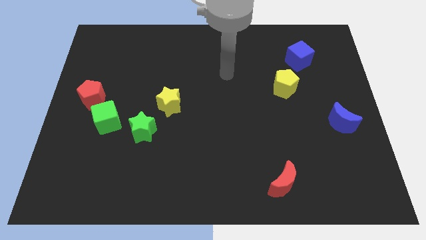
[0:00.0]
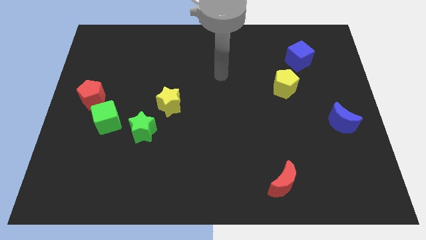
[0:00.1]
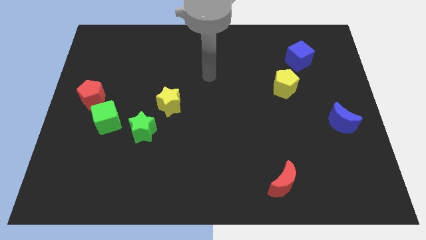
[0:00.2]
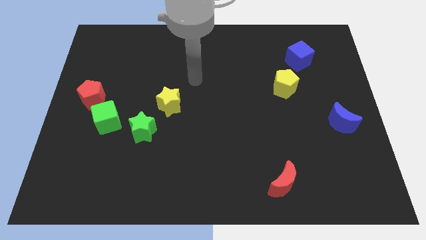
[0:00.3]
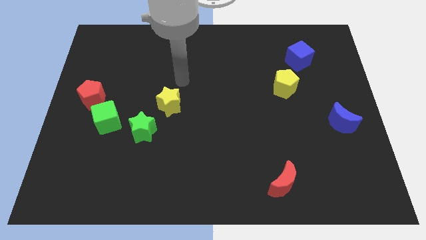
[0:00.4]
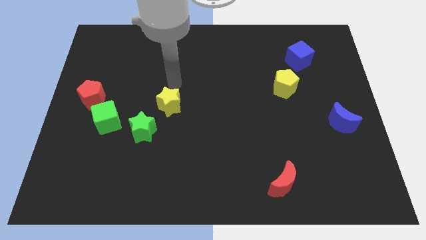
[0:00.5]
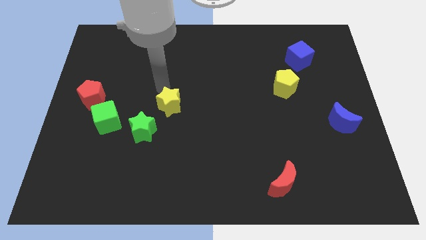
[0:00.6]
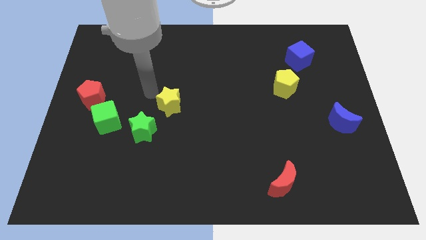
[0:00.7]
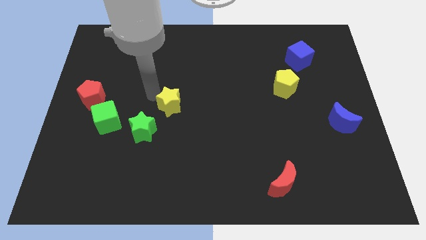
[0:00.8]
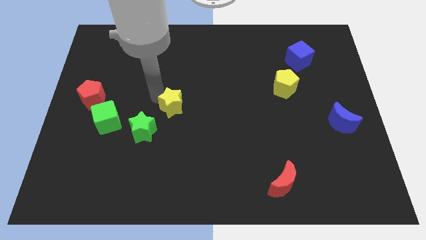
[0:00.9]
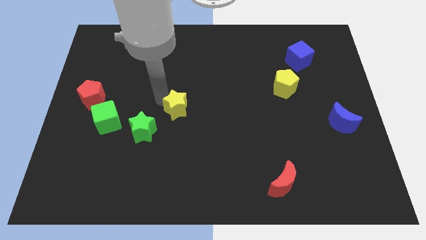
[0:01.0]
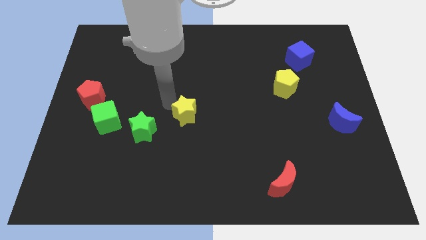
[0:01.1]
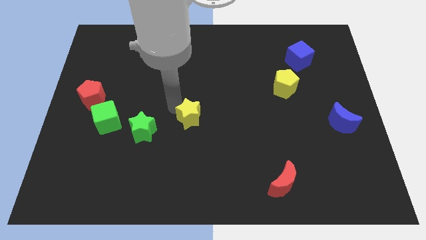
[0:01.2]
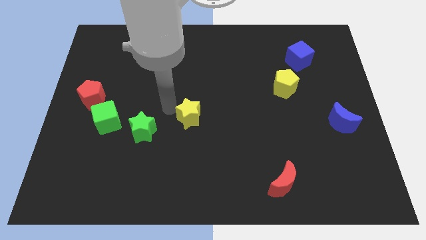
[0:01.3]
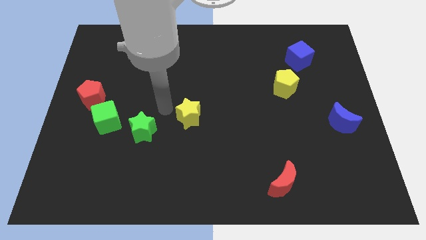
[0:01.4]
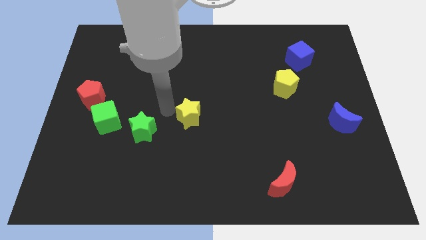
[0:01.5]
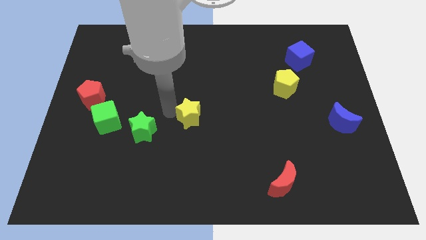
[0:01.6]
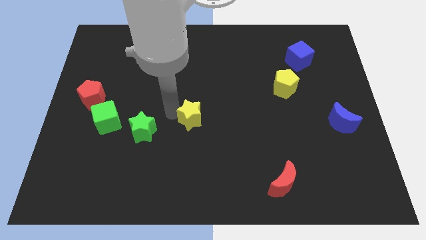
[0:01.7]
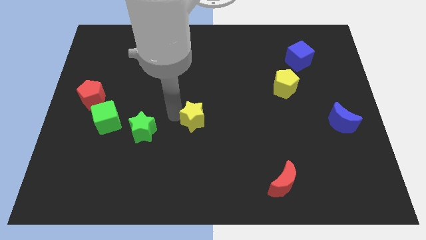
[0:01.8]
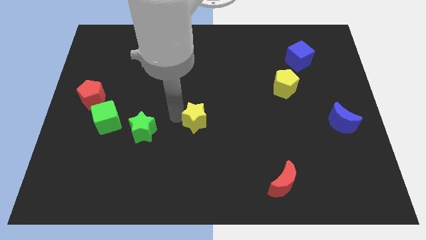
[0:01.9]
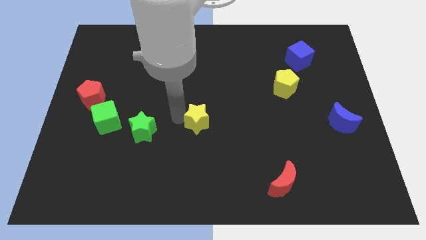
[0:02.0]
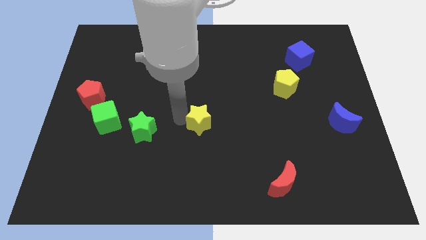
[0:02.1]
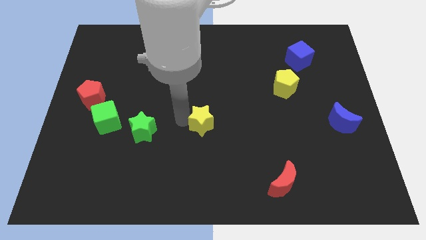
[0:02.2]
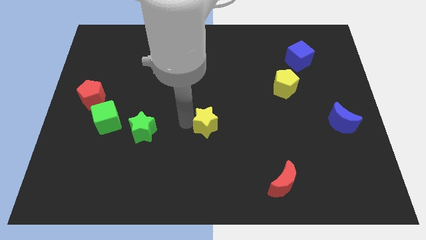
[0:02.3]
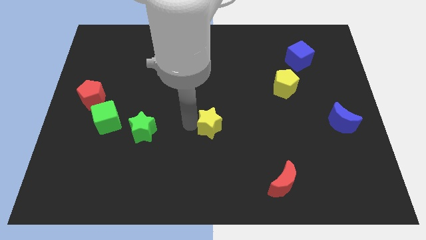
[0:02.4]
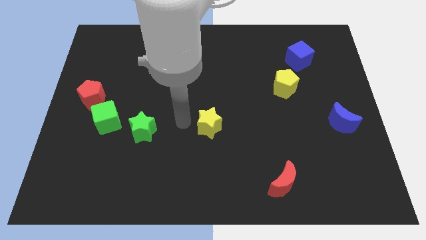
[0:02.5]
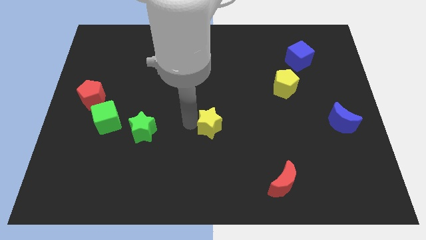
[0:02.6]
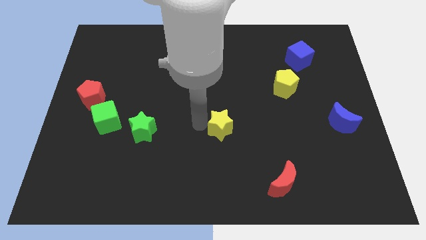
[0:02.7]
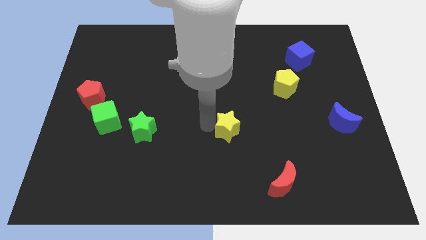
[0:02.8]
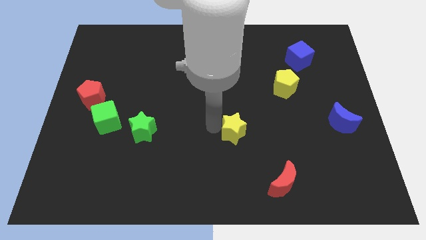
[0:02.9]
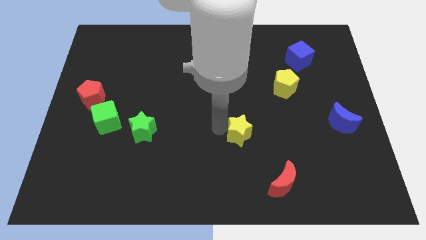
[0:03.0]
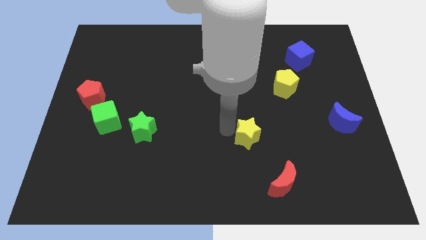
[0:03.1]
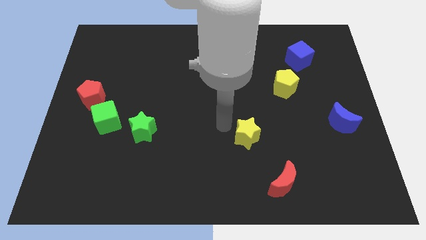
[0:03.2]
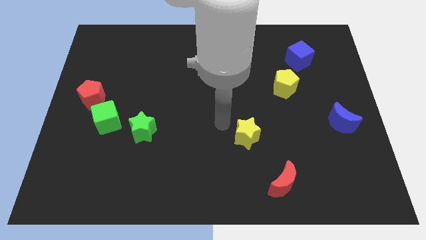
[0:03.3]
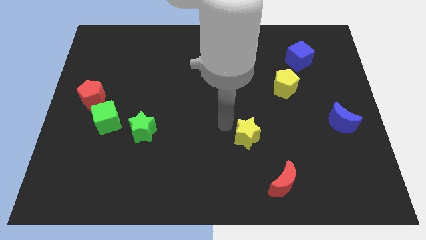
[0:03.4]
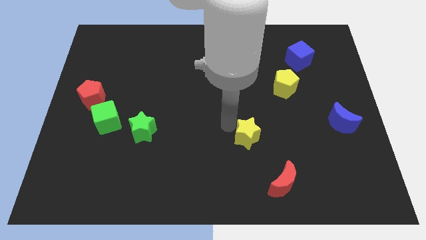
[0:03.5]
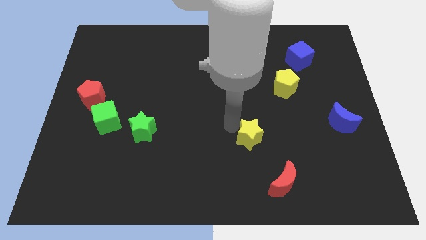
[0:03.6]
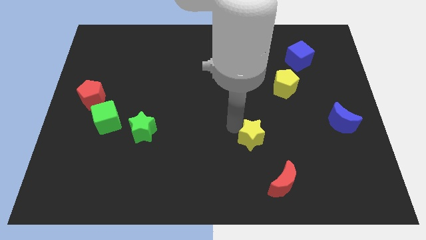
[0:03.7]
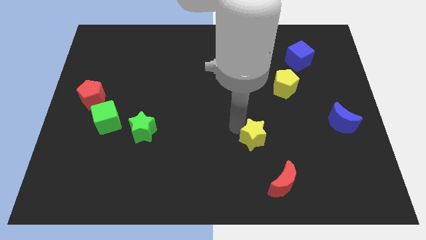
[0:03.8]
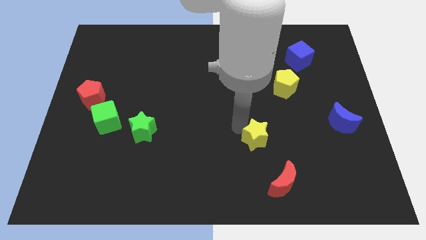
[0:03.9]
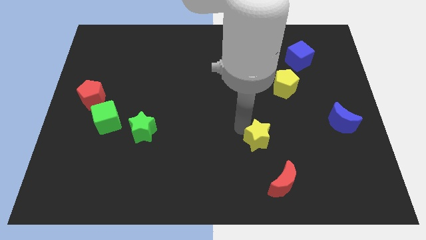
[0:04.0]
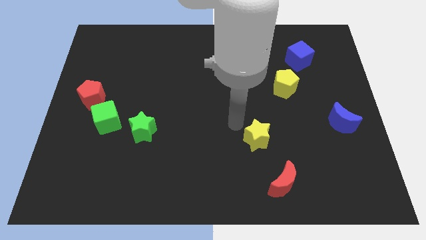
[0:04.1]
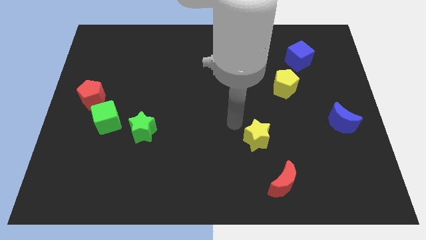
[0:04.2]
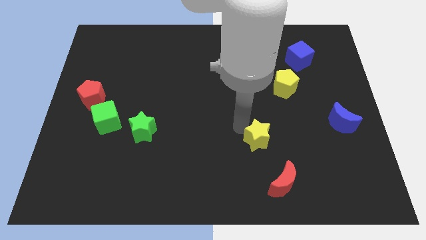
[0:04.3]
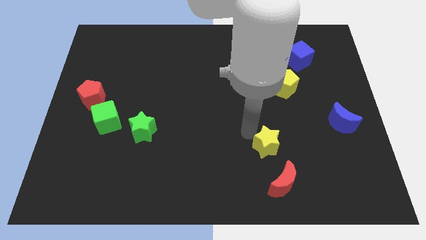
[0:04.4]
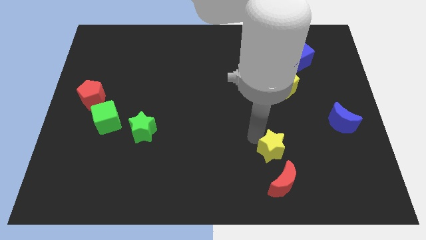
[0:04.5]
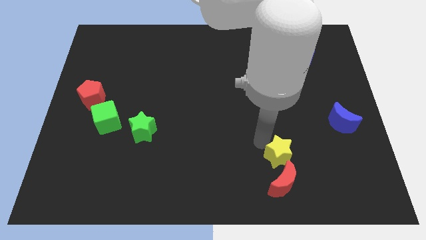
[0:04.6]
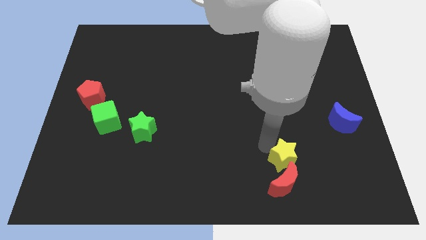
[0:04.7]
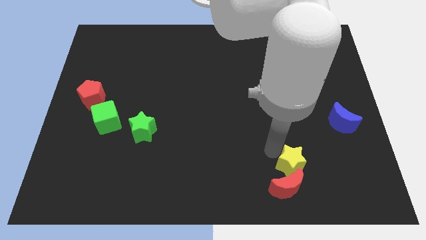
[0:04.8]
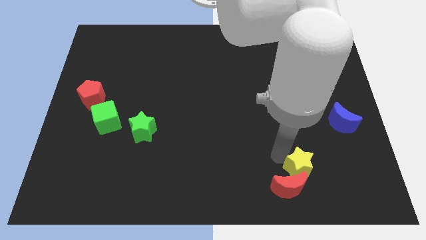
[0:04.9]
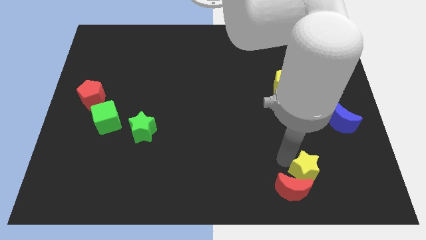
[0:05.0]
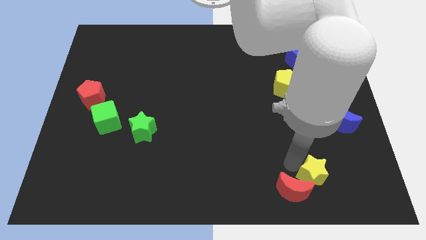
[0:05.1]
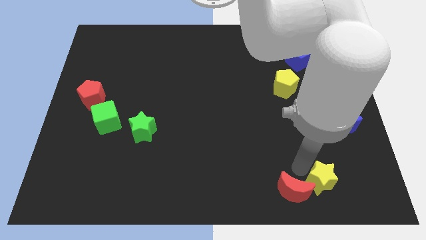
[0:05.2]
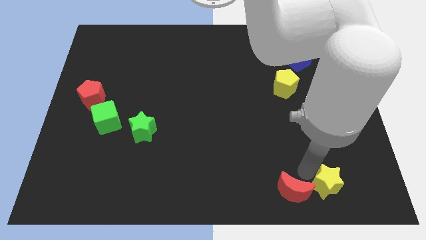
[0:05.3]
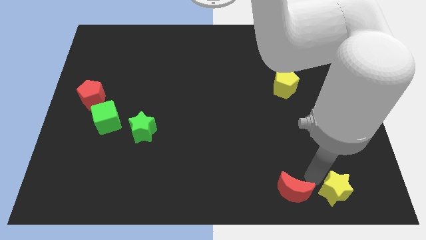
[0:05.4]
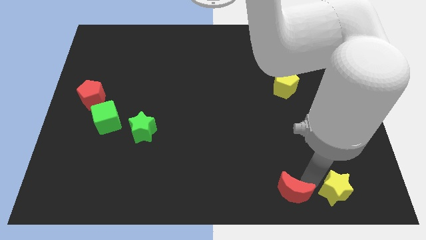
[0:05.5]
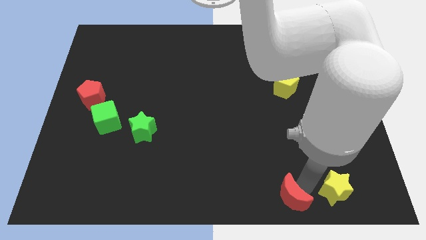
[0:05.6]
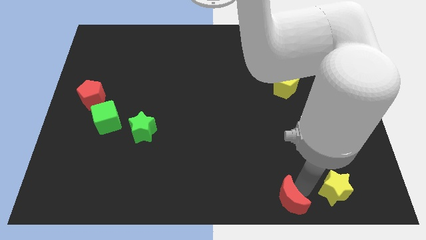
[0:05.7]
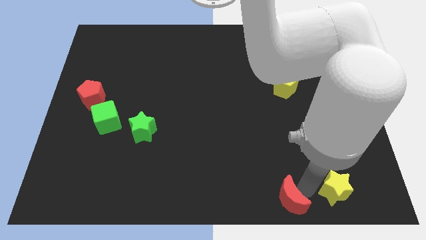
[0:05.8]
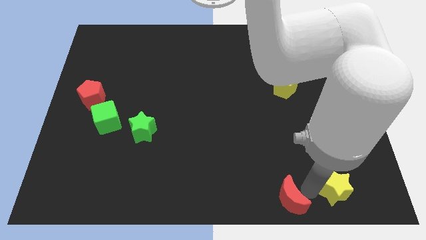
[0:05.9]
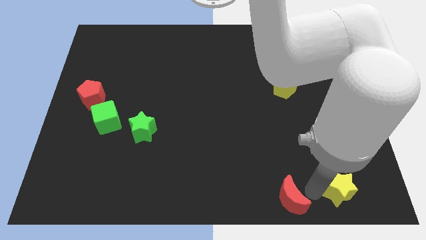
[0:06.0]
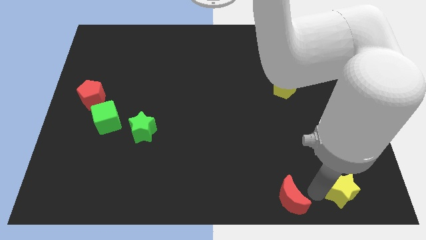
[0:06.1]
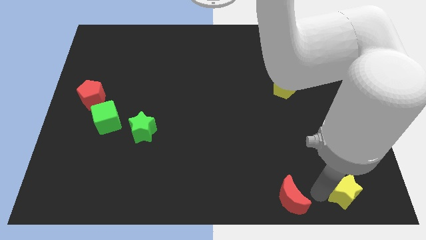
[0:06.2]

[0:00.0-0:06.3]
push the yellow star to the bottom right of the board

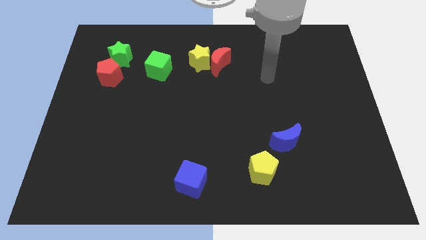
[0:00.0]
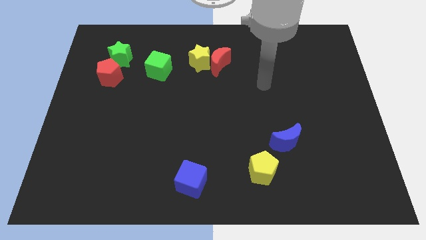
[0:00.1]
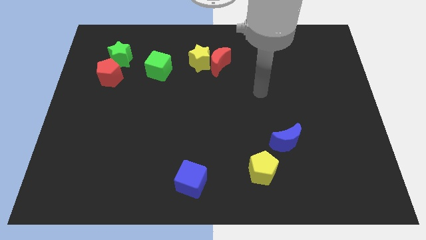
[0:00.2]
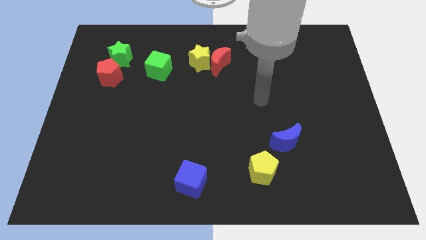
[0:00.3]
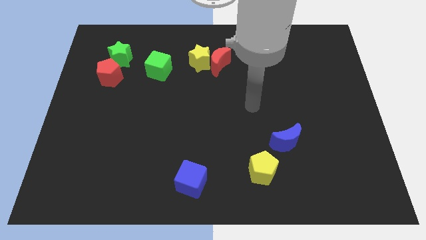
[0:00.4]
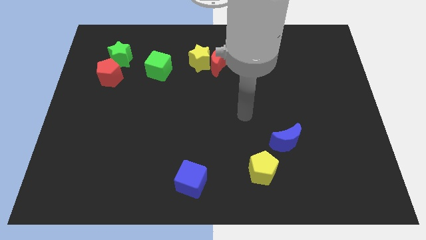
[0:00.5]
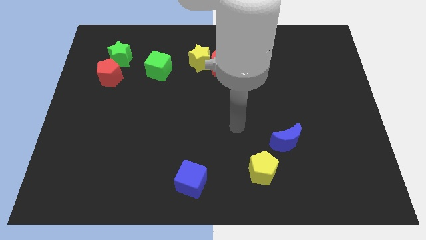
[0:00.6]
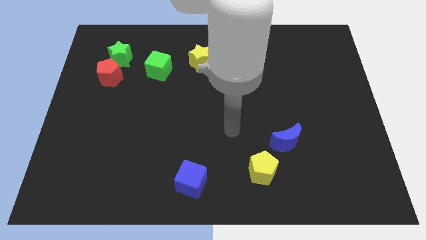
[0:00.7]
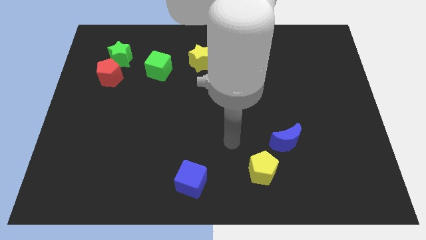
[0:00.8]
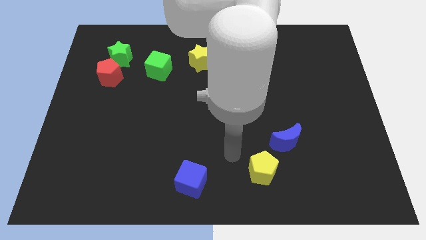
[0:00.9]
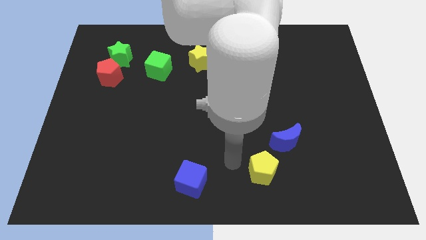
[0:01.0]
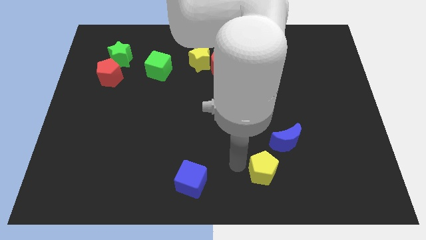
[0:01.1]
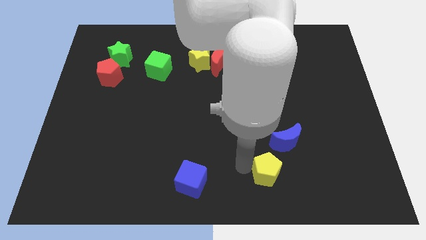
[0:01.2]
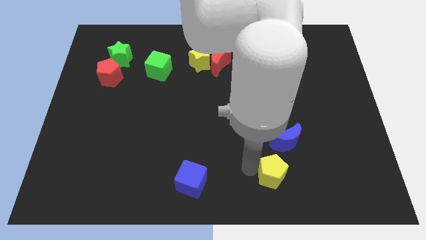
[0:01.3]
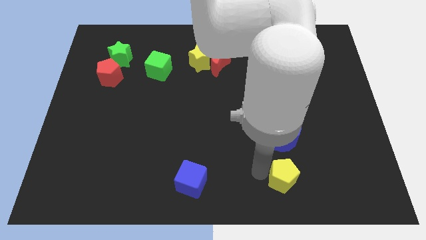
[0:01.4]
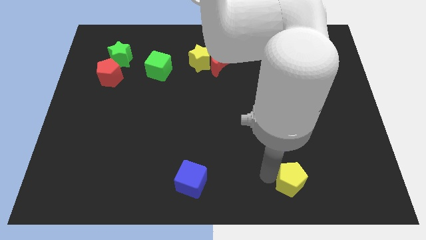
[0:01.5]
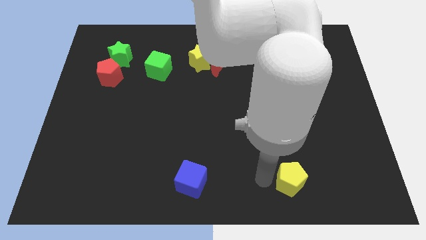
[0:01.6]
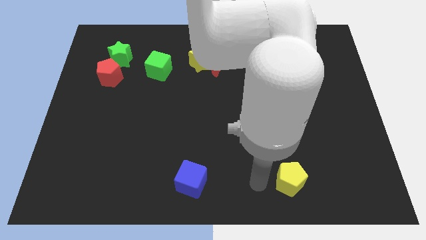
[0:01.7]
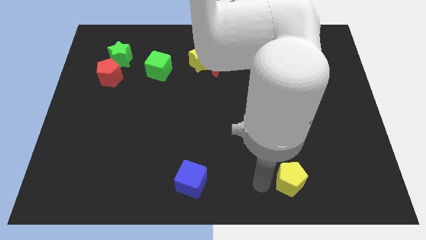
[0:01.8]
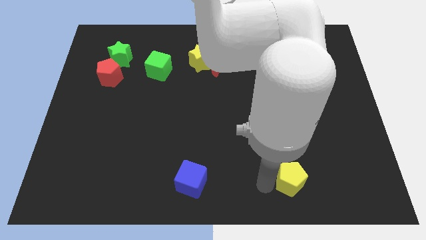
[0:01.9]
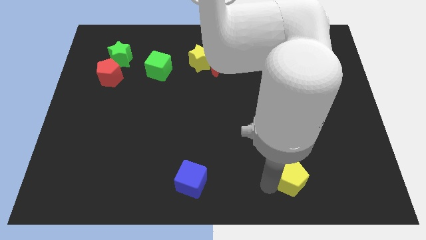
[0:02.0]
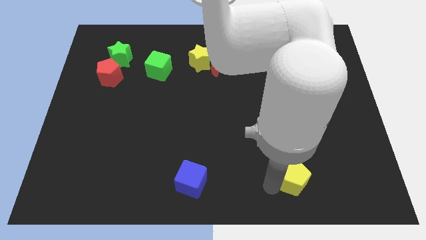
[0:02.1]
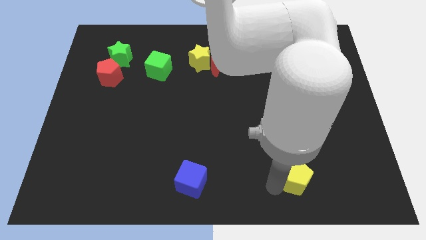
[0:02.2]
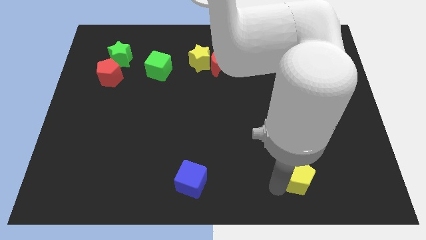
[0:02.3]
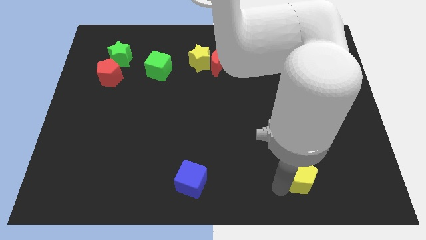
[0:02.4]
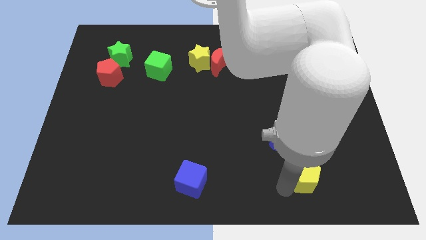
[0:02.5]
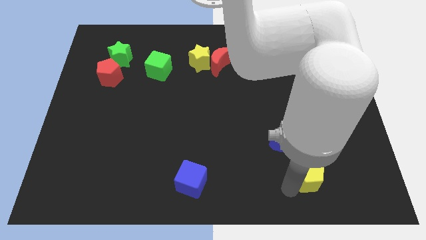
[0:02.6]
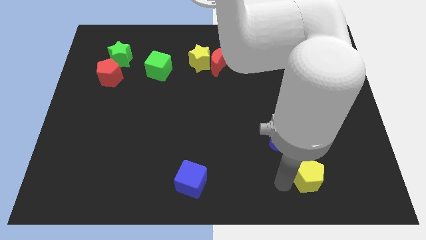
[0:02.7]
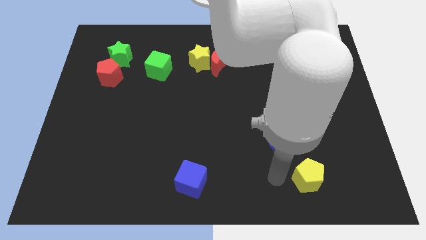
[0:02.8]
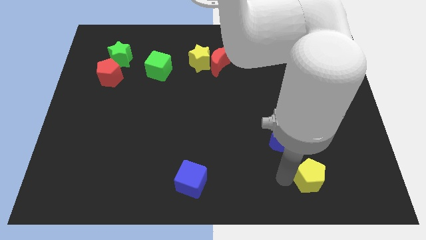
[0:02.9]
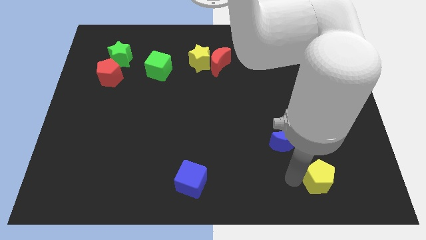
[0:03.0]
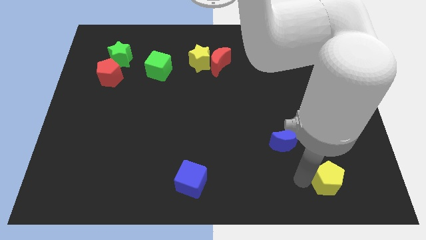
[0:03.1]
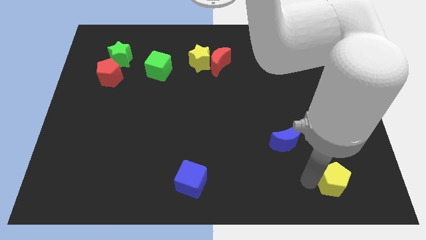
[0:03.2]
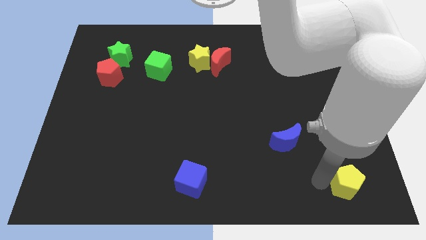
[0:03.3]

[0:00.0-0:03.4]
put the yellow pentagon to the bottom right
